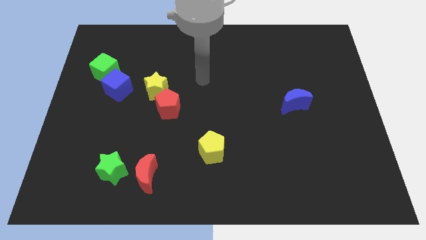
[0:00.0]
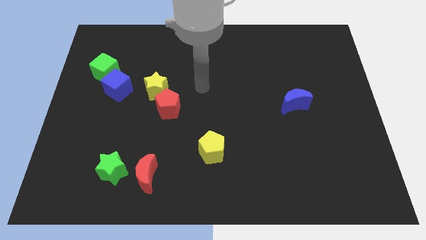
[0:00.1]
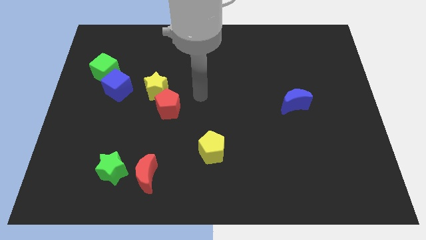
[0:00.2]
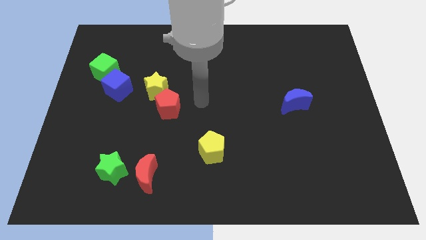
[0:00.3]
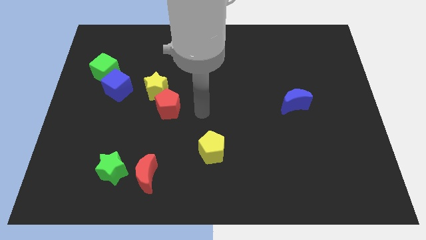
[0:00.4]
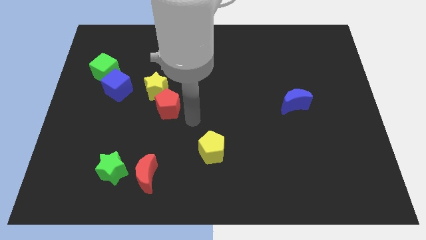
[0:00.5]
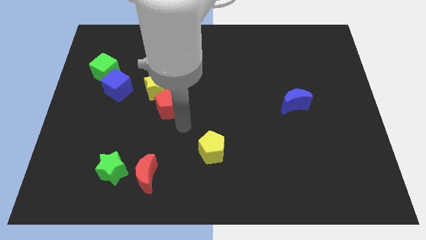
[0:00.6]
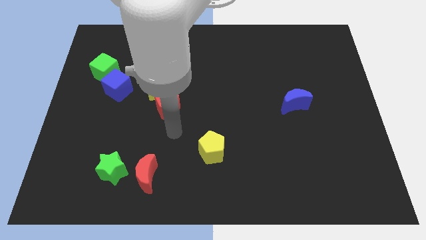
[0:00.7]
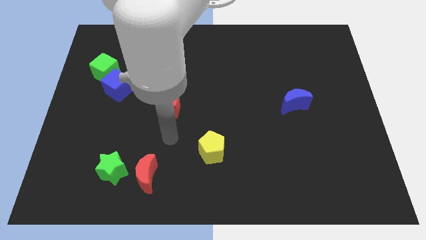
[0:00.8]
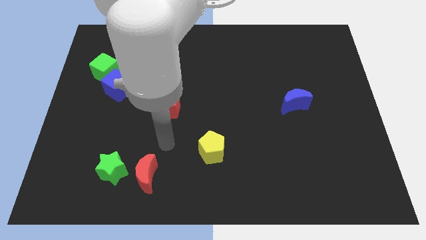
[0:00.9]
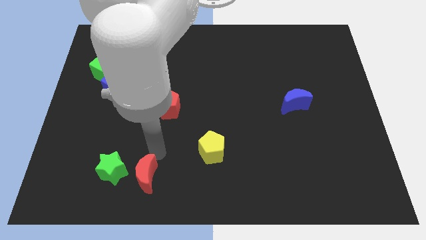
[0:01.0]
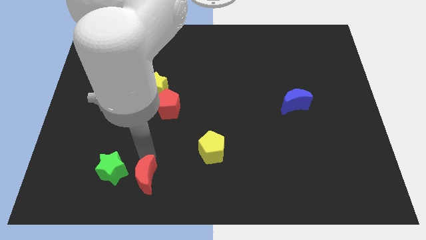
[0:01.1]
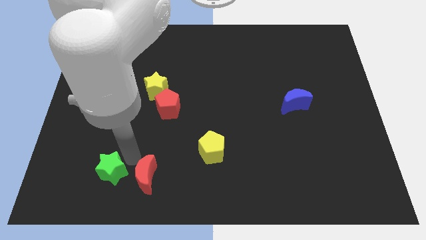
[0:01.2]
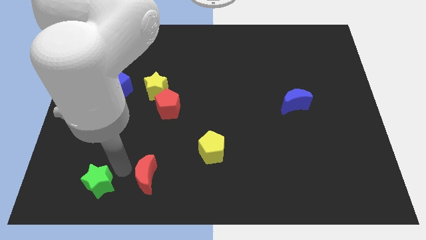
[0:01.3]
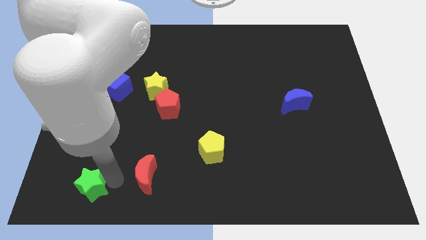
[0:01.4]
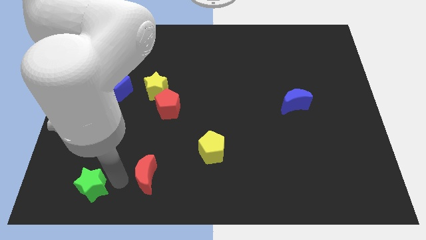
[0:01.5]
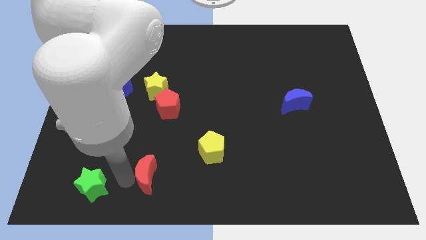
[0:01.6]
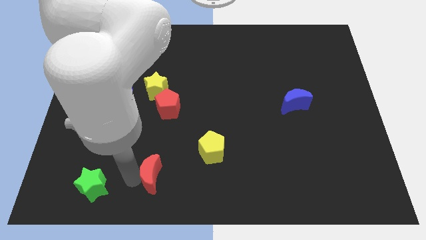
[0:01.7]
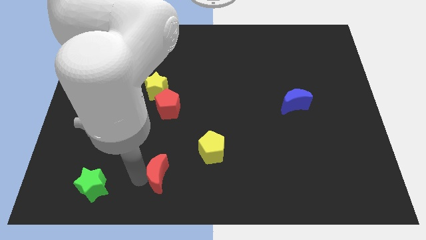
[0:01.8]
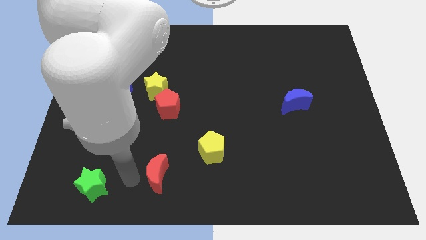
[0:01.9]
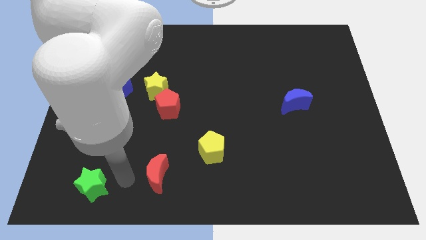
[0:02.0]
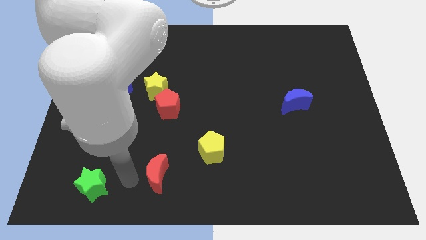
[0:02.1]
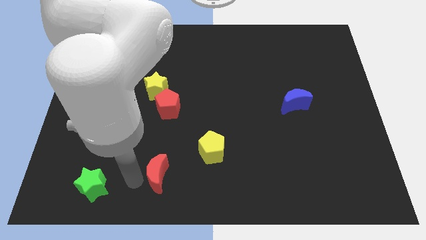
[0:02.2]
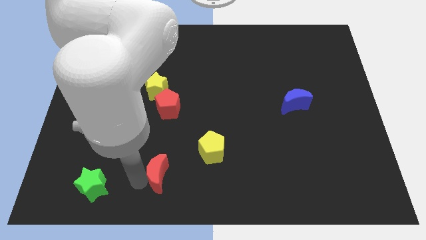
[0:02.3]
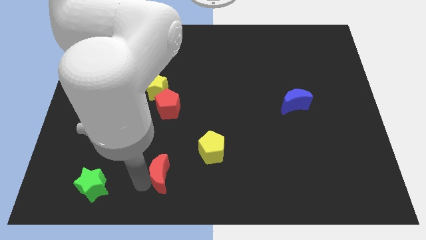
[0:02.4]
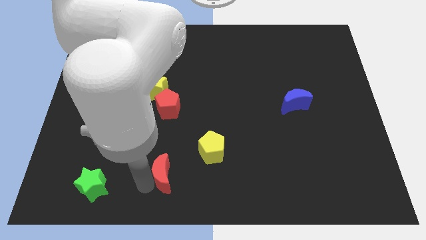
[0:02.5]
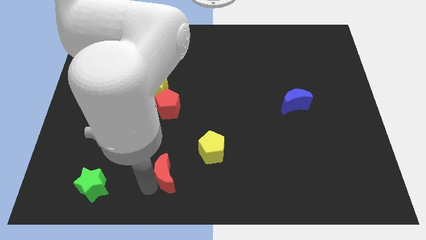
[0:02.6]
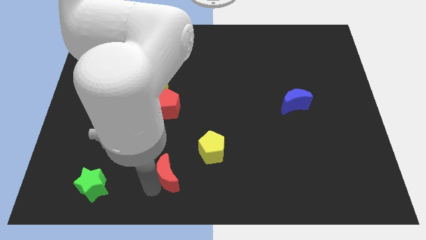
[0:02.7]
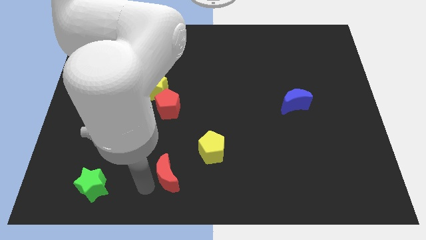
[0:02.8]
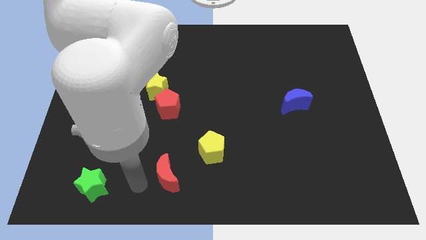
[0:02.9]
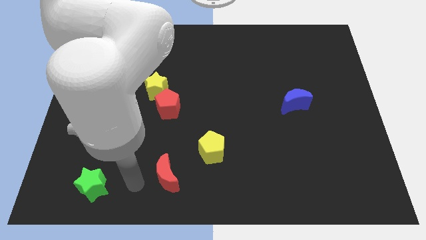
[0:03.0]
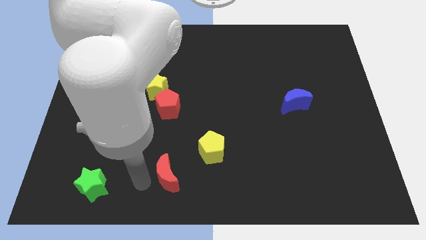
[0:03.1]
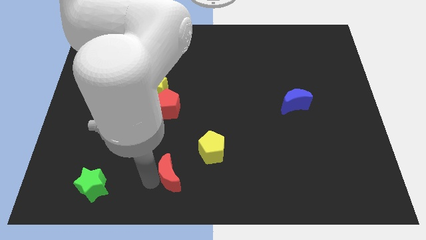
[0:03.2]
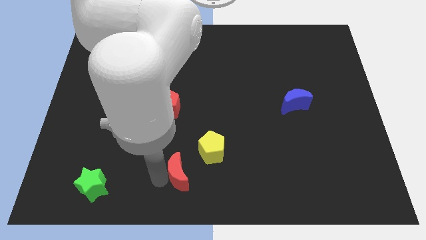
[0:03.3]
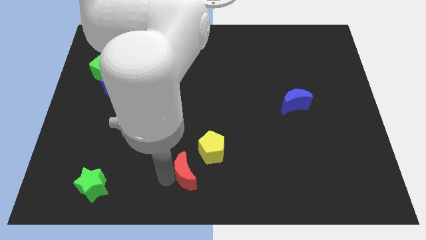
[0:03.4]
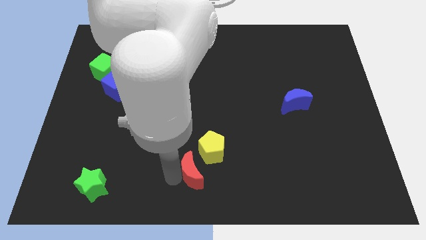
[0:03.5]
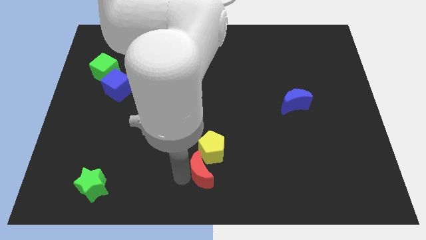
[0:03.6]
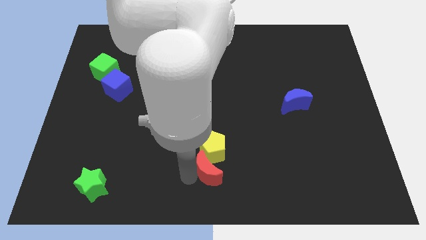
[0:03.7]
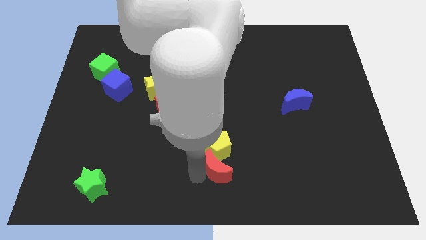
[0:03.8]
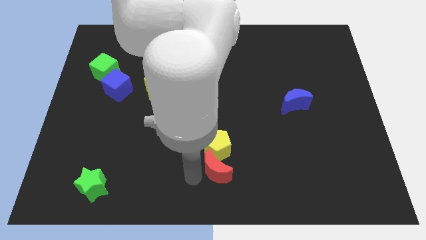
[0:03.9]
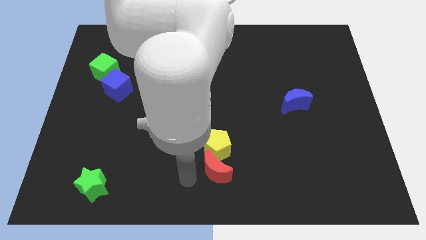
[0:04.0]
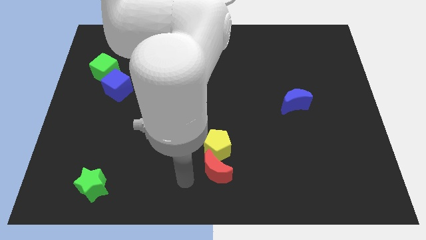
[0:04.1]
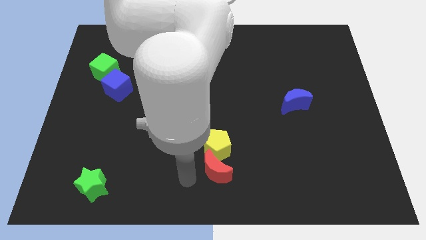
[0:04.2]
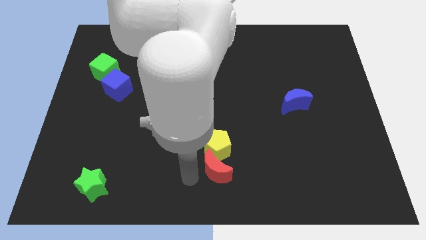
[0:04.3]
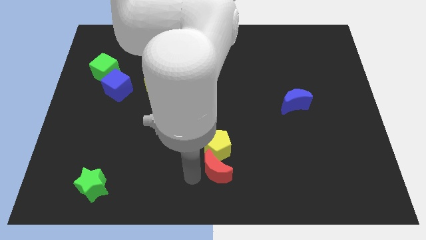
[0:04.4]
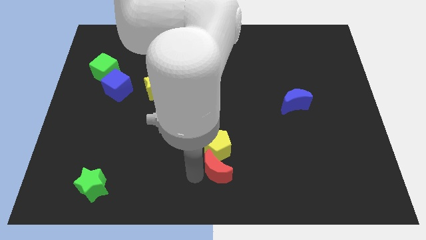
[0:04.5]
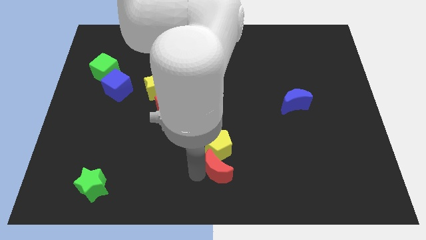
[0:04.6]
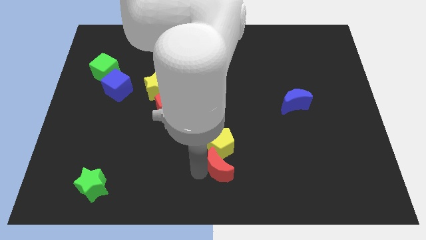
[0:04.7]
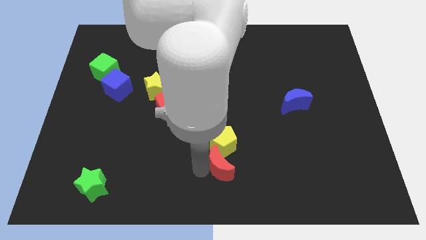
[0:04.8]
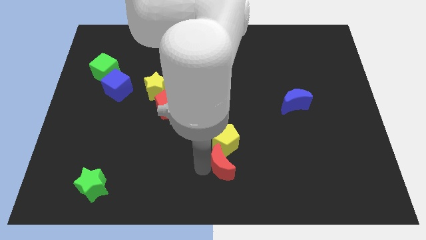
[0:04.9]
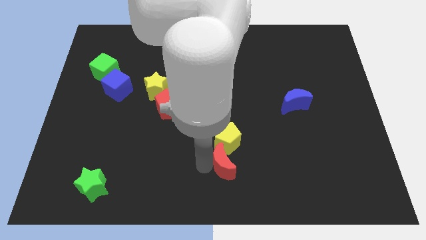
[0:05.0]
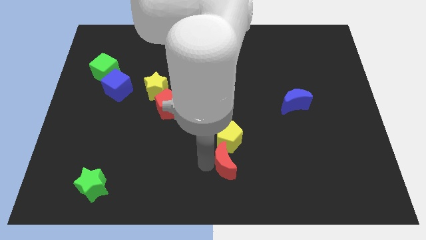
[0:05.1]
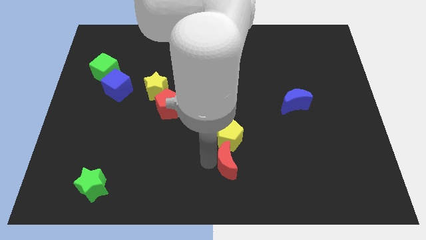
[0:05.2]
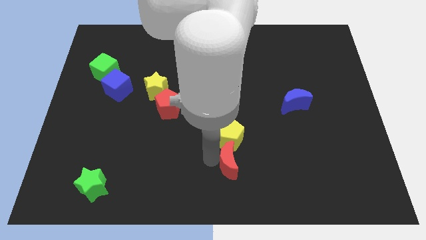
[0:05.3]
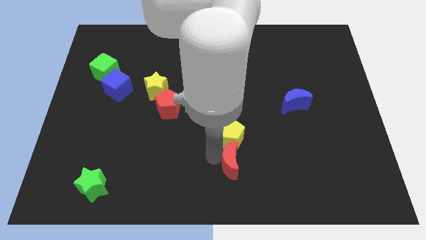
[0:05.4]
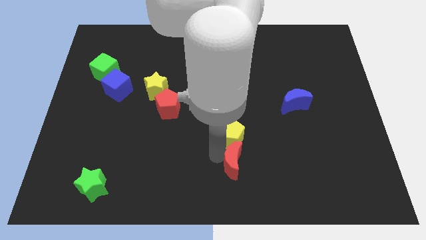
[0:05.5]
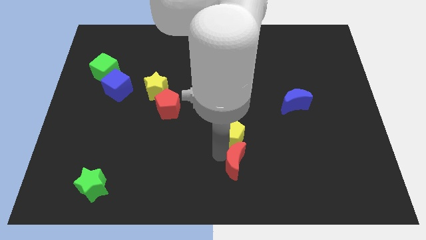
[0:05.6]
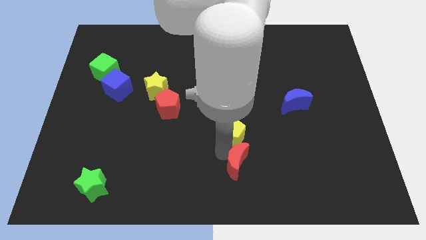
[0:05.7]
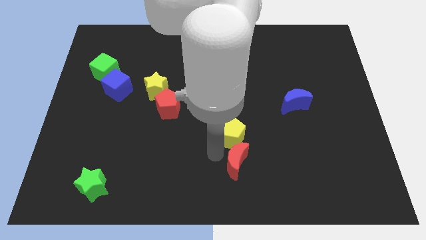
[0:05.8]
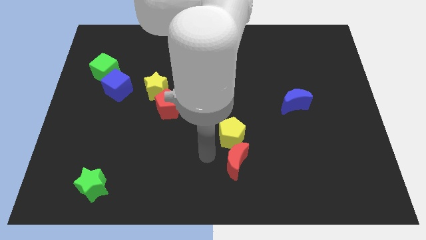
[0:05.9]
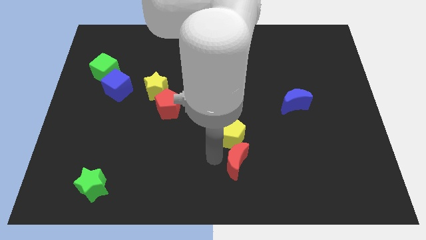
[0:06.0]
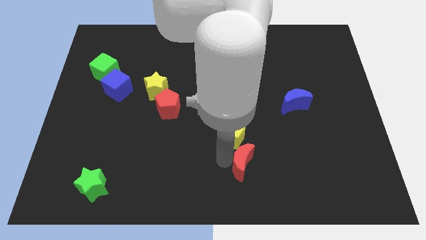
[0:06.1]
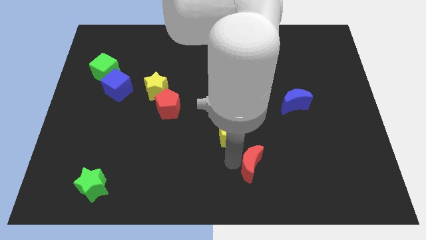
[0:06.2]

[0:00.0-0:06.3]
push the red moon to the right

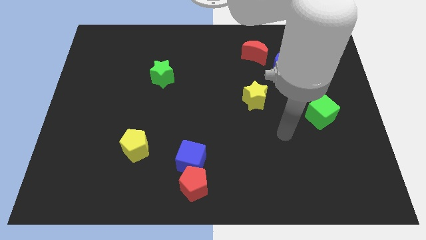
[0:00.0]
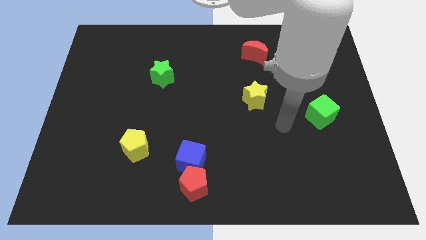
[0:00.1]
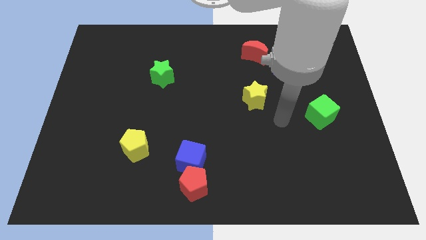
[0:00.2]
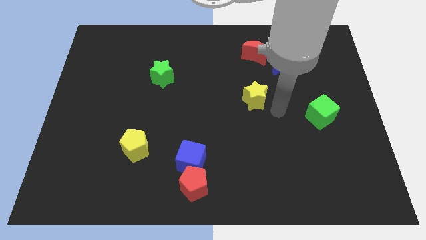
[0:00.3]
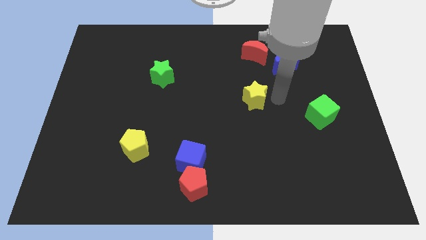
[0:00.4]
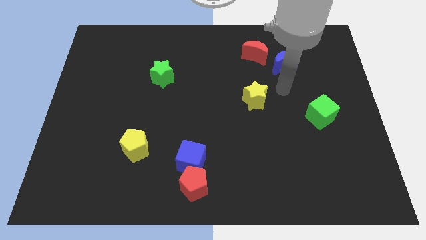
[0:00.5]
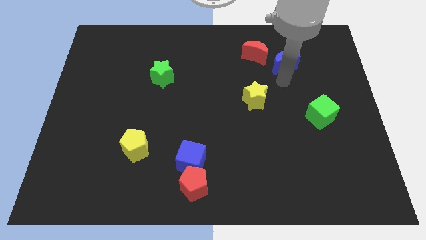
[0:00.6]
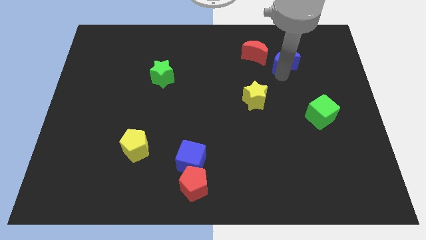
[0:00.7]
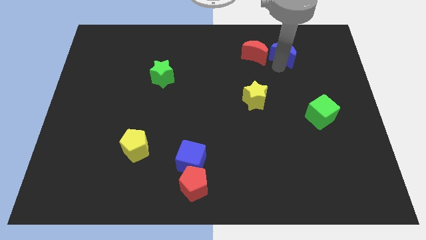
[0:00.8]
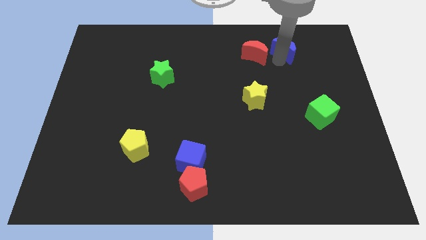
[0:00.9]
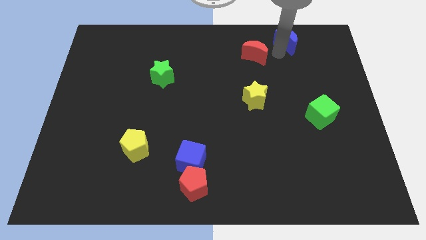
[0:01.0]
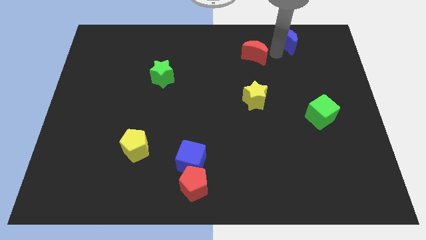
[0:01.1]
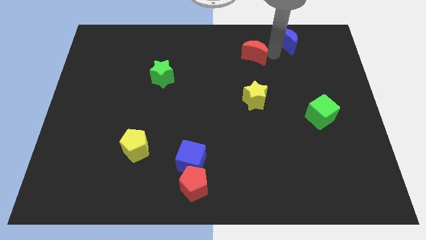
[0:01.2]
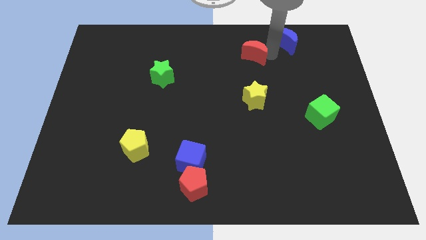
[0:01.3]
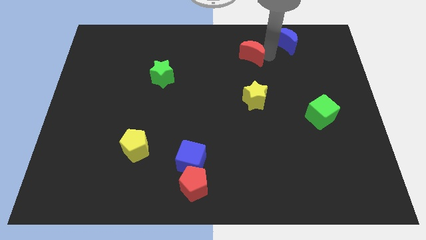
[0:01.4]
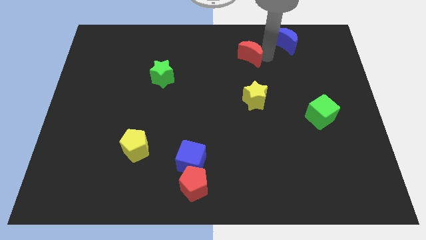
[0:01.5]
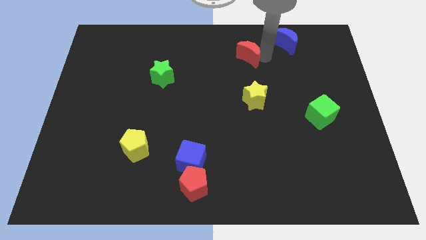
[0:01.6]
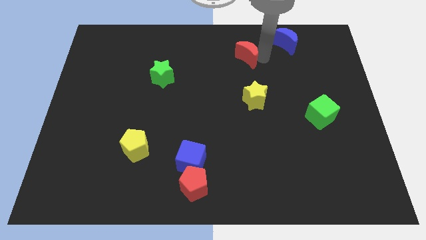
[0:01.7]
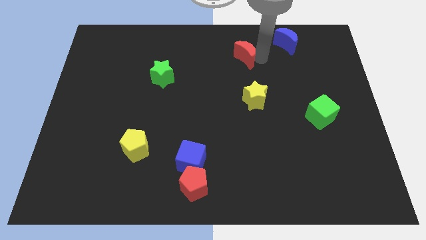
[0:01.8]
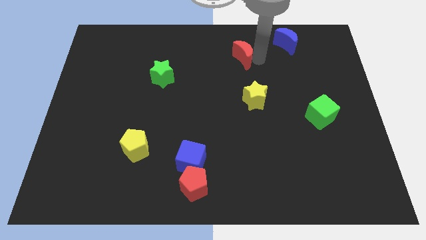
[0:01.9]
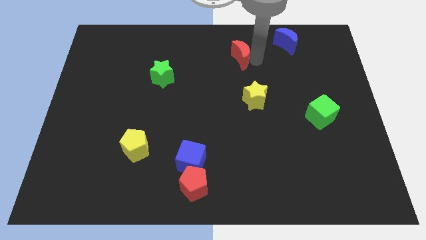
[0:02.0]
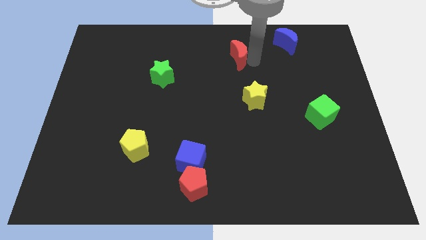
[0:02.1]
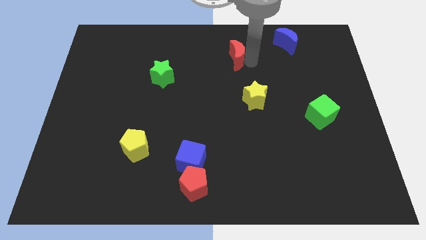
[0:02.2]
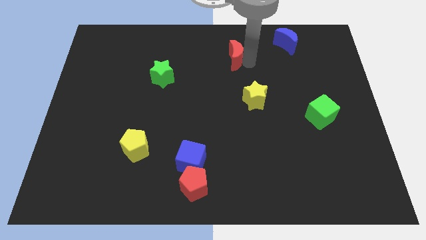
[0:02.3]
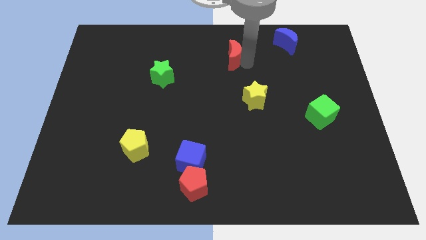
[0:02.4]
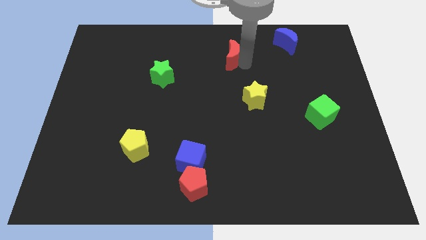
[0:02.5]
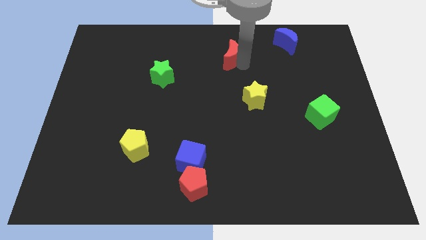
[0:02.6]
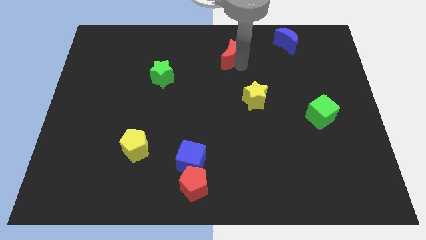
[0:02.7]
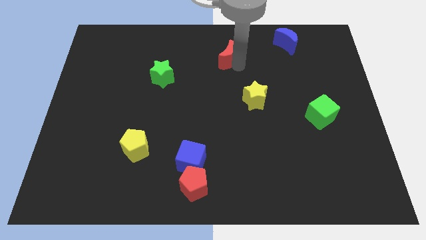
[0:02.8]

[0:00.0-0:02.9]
slide the red moon a bit to the left
